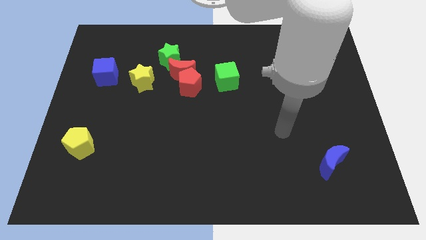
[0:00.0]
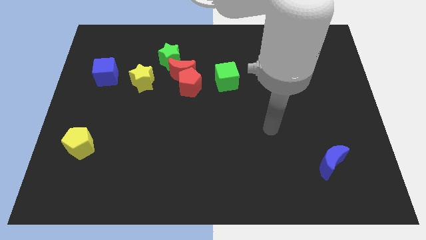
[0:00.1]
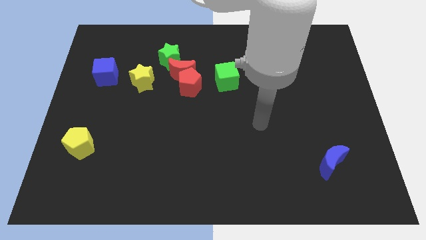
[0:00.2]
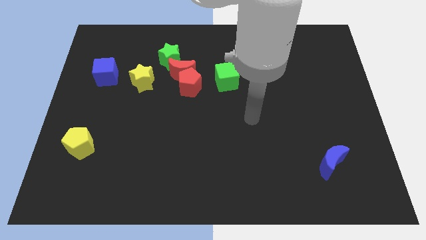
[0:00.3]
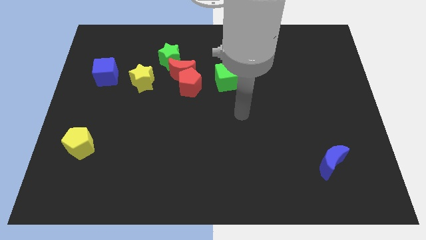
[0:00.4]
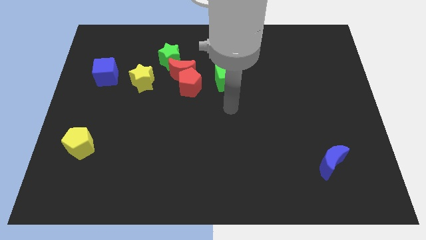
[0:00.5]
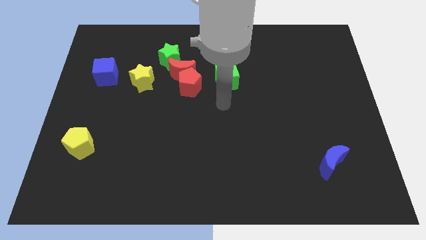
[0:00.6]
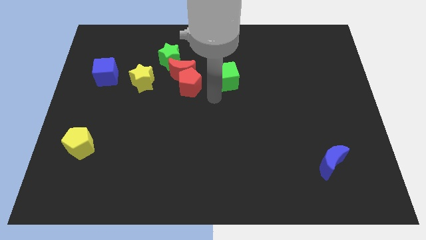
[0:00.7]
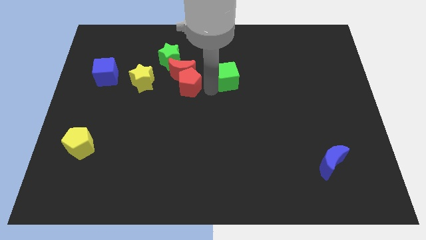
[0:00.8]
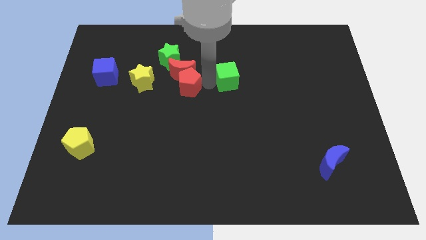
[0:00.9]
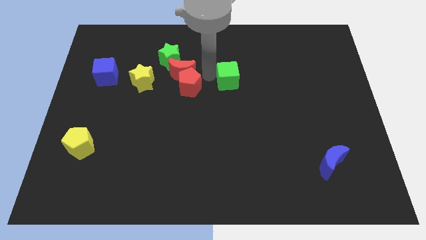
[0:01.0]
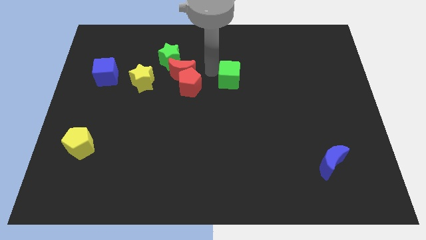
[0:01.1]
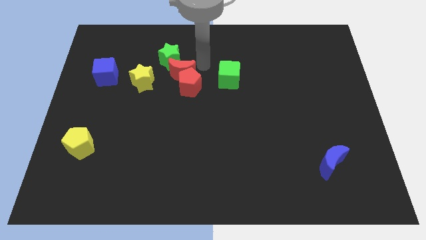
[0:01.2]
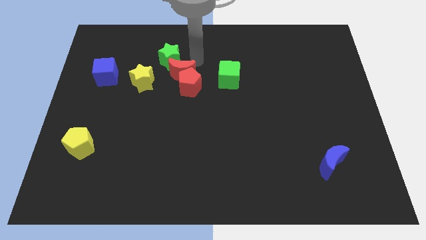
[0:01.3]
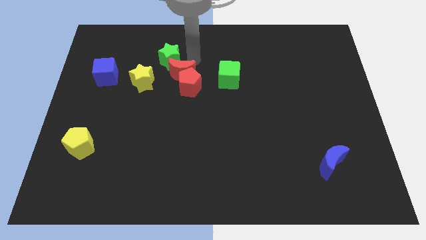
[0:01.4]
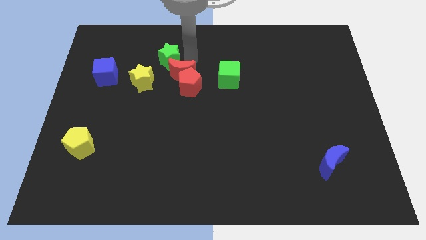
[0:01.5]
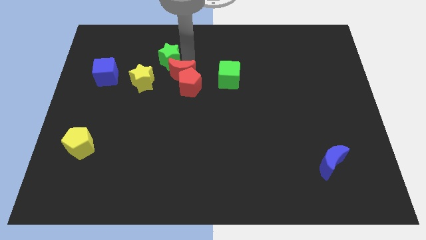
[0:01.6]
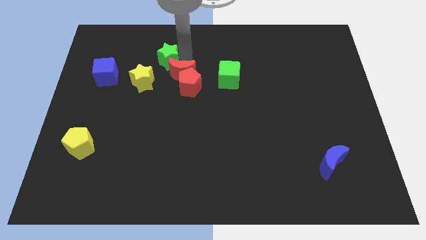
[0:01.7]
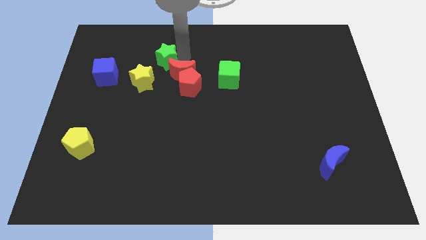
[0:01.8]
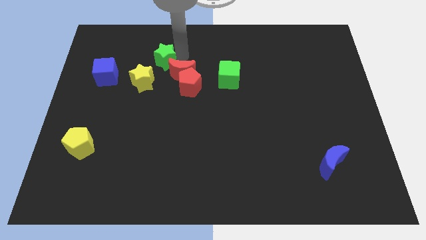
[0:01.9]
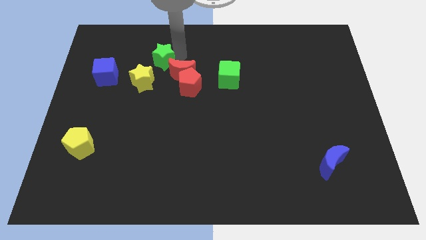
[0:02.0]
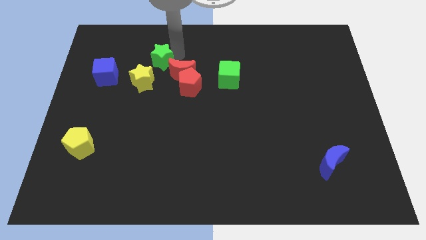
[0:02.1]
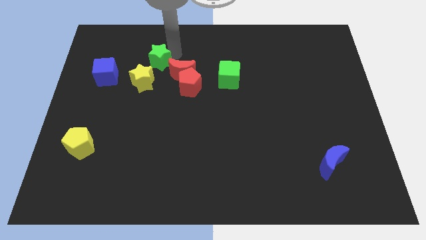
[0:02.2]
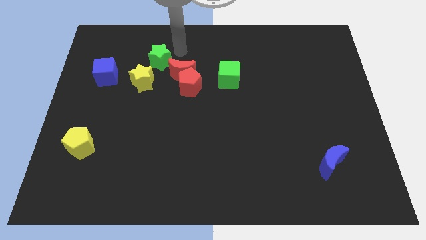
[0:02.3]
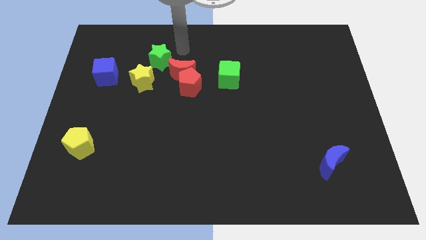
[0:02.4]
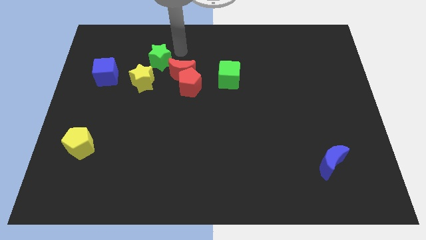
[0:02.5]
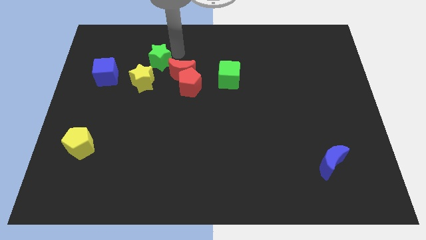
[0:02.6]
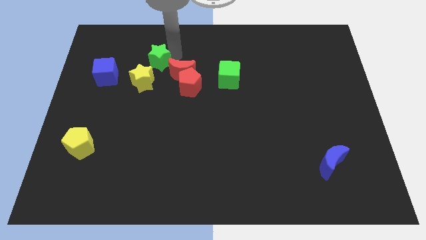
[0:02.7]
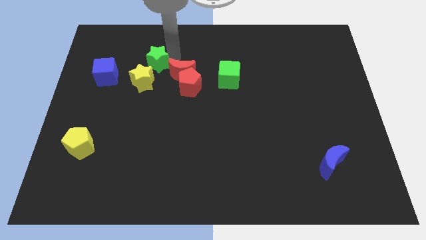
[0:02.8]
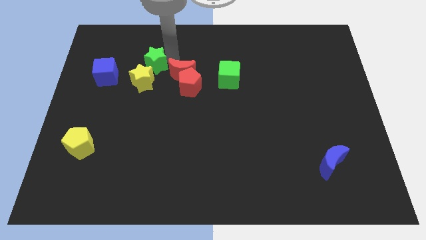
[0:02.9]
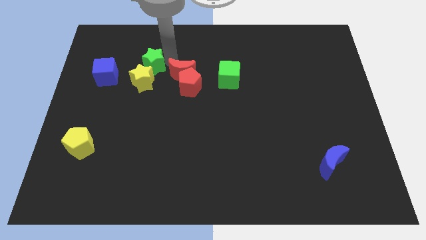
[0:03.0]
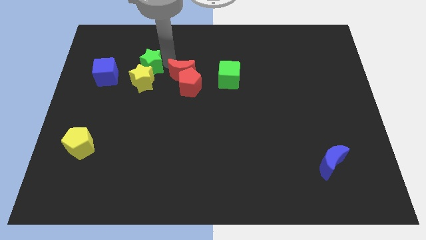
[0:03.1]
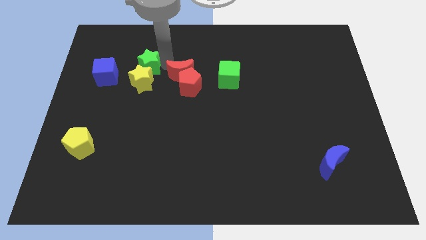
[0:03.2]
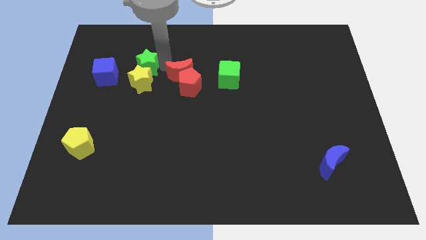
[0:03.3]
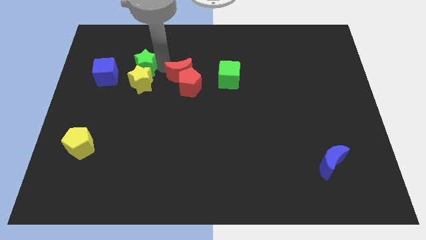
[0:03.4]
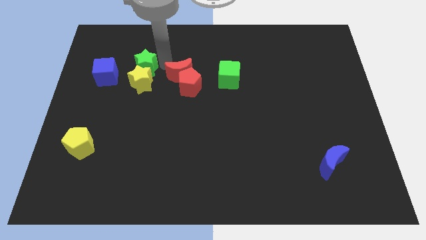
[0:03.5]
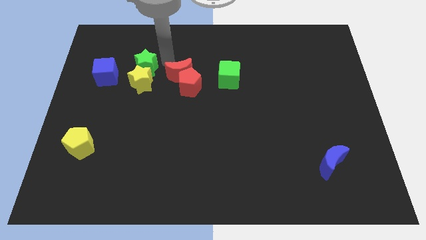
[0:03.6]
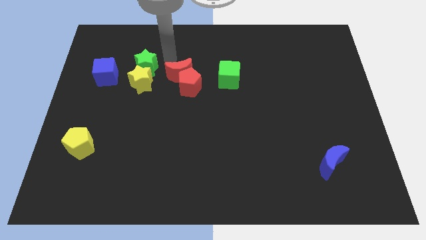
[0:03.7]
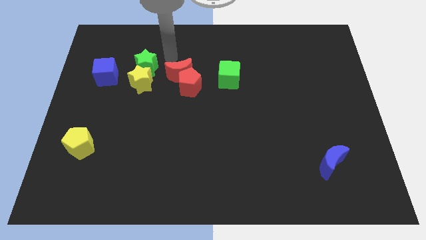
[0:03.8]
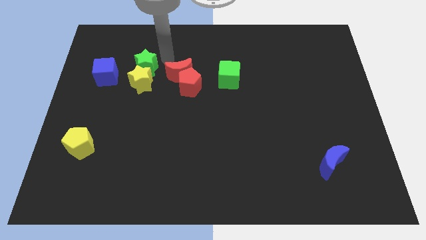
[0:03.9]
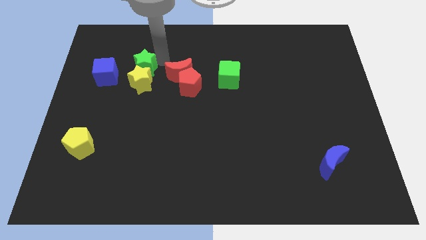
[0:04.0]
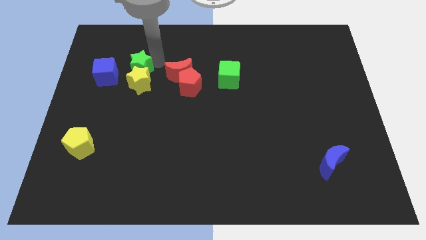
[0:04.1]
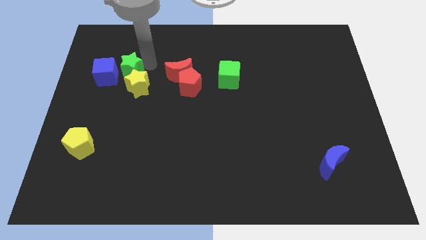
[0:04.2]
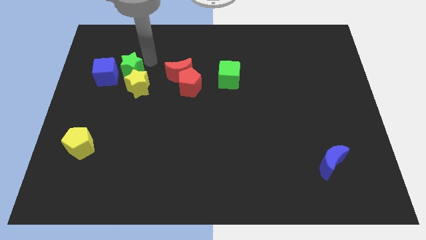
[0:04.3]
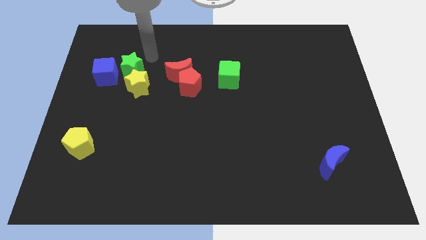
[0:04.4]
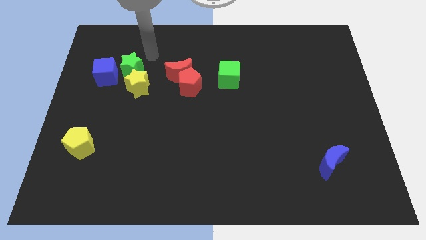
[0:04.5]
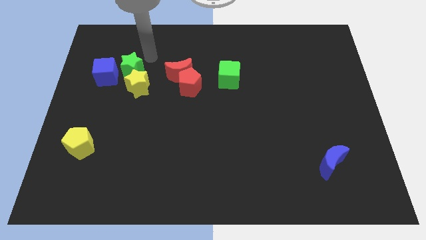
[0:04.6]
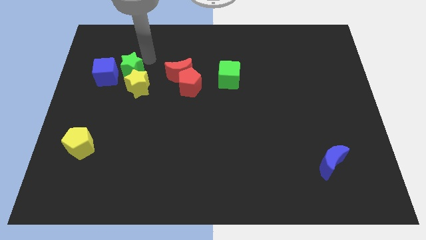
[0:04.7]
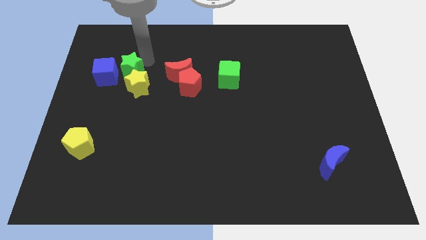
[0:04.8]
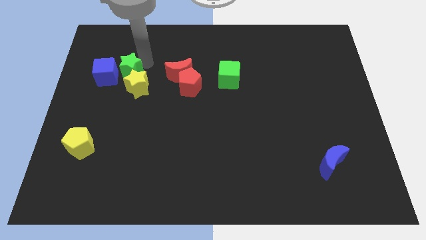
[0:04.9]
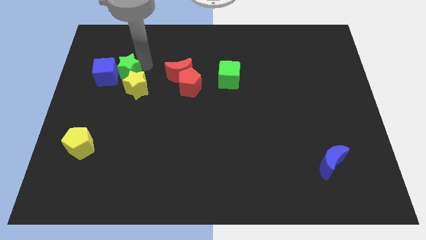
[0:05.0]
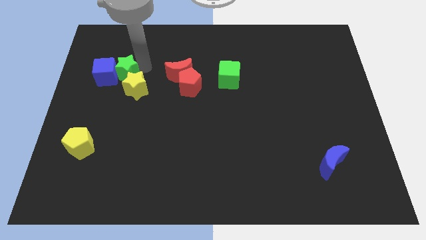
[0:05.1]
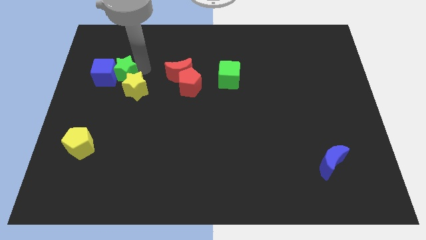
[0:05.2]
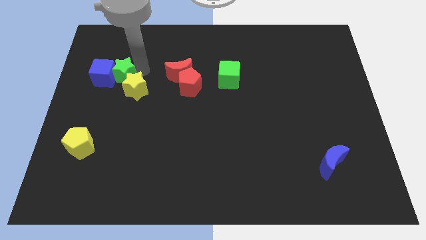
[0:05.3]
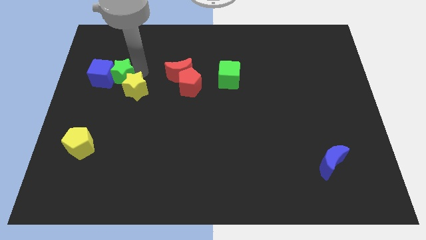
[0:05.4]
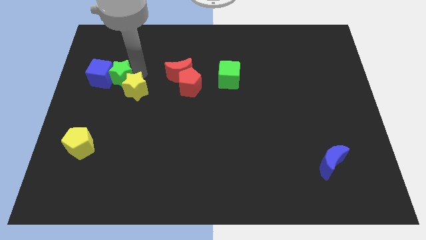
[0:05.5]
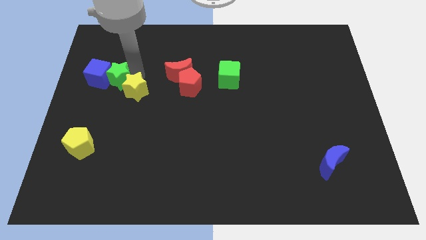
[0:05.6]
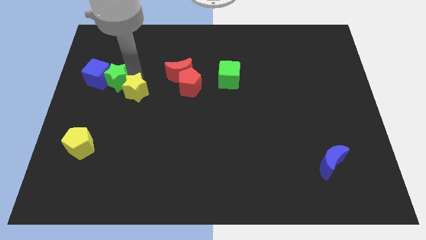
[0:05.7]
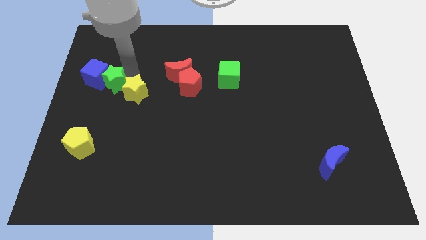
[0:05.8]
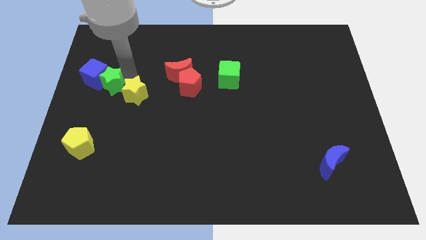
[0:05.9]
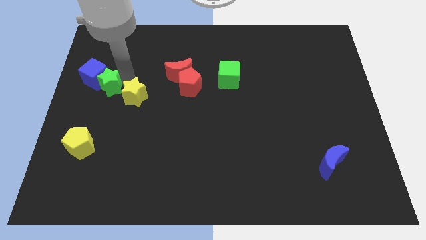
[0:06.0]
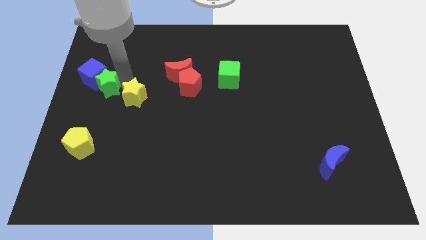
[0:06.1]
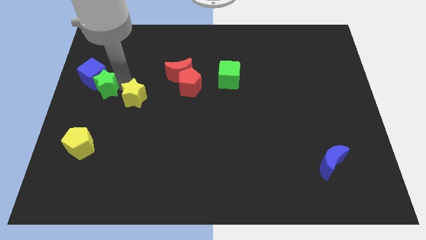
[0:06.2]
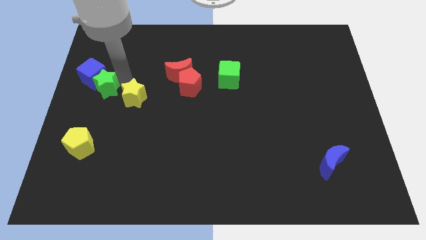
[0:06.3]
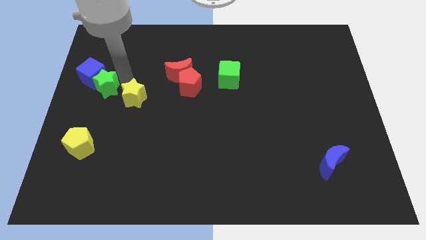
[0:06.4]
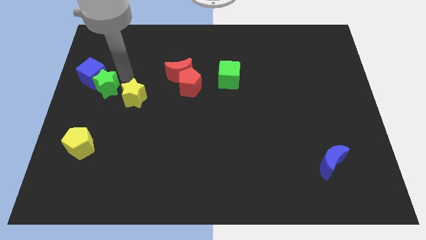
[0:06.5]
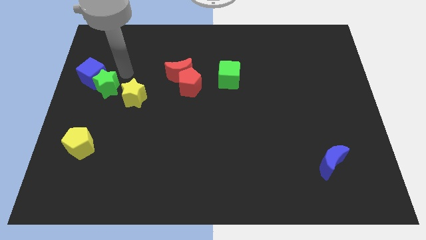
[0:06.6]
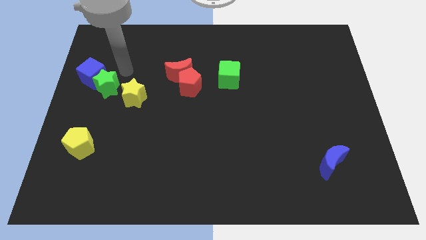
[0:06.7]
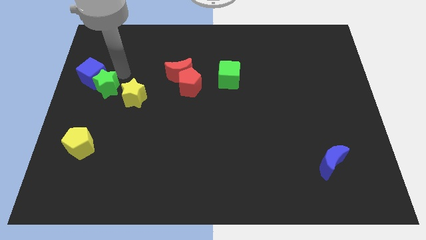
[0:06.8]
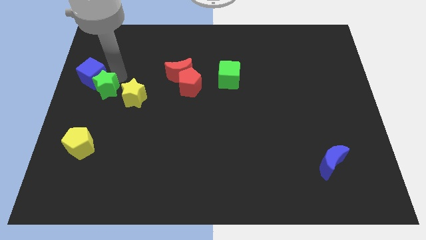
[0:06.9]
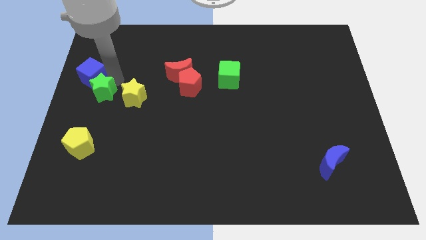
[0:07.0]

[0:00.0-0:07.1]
move the green star to the top of the yellow pentagon

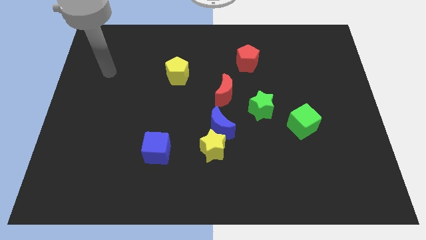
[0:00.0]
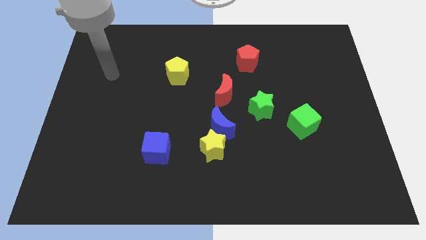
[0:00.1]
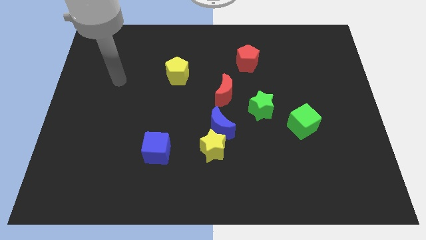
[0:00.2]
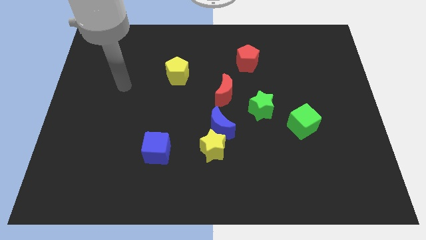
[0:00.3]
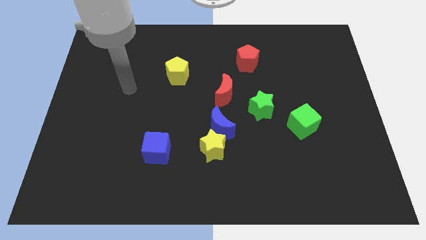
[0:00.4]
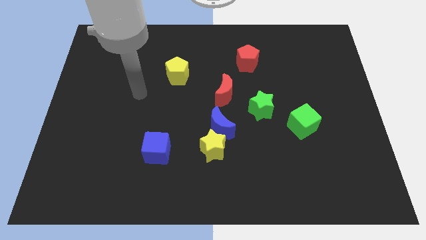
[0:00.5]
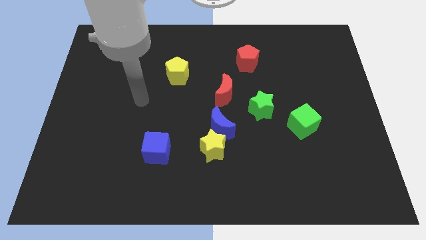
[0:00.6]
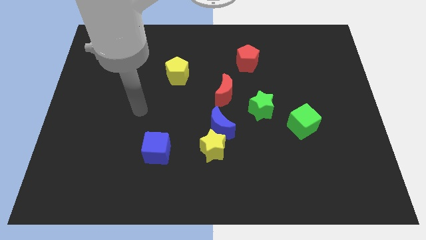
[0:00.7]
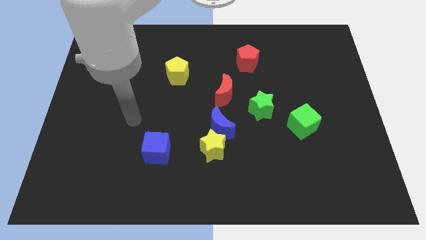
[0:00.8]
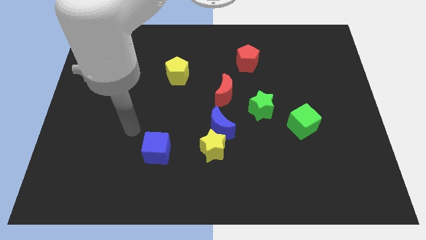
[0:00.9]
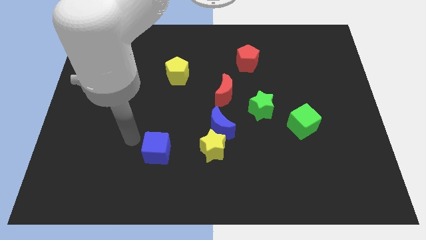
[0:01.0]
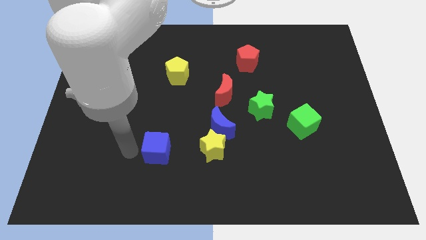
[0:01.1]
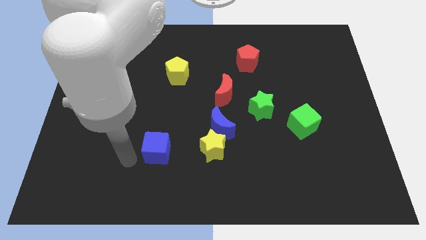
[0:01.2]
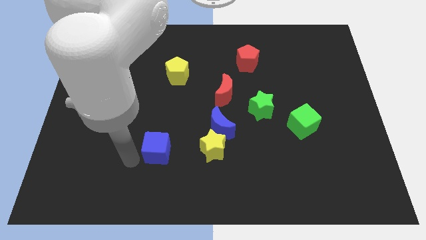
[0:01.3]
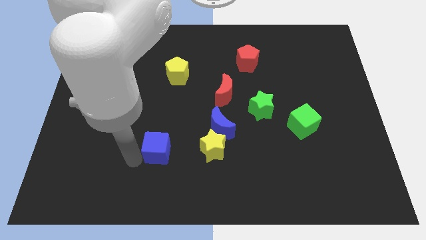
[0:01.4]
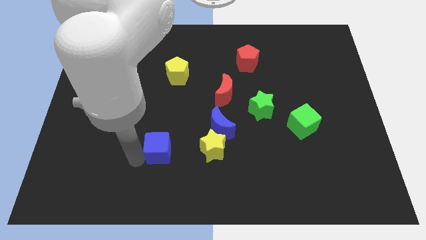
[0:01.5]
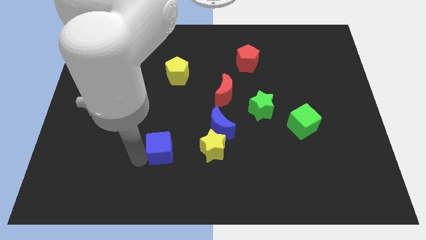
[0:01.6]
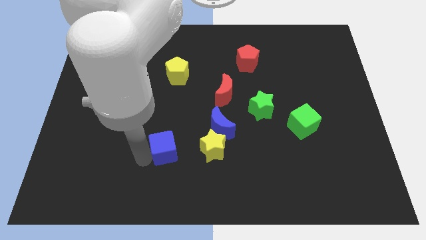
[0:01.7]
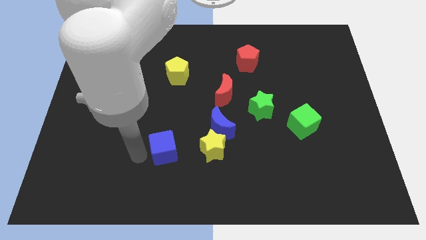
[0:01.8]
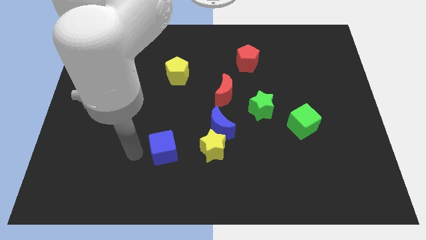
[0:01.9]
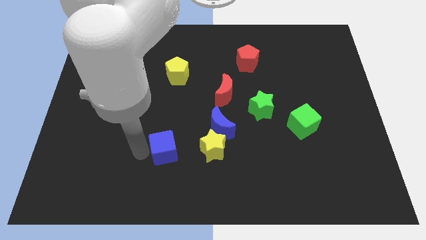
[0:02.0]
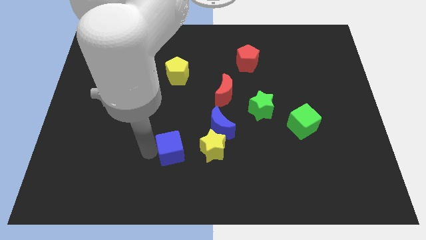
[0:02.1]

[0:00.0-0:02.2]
push the blue cube diagonally down and to the left of the blue moon
